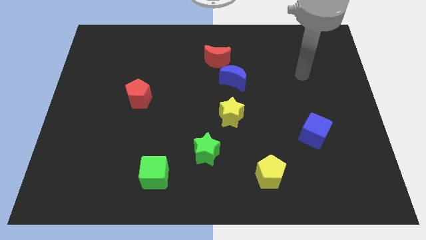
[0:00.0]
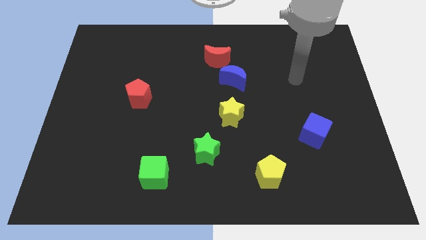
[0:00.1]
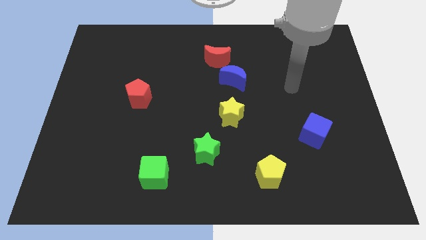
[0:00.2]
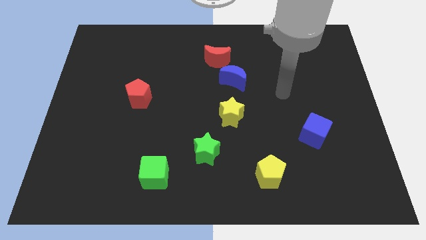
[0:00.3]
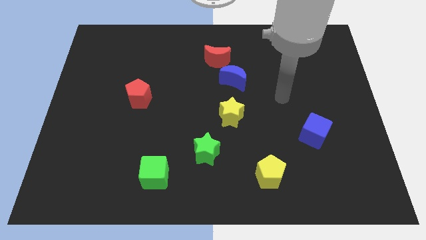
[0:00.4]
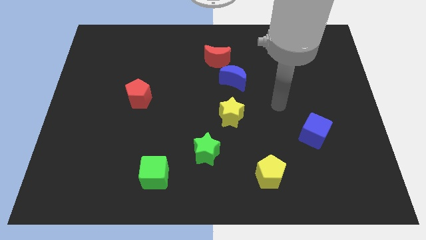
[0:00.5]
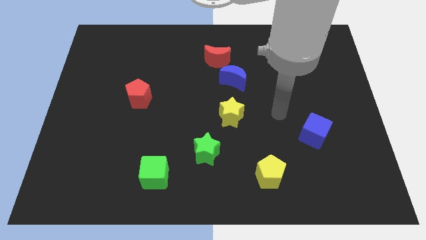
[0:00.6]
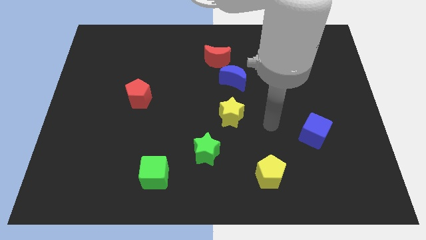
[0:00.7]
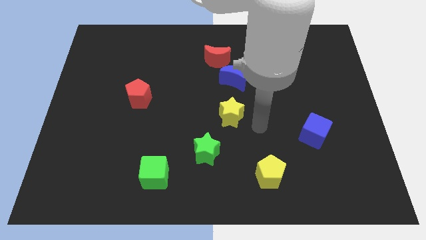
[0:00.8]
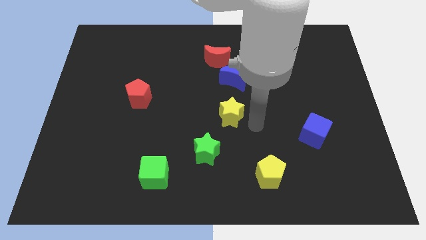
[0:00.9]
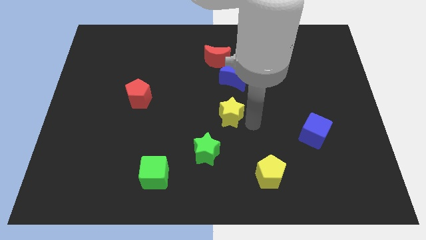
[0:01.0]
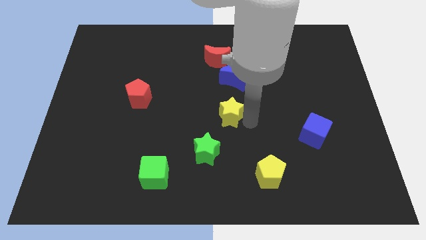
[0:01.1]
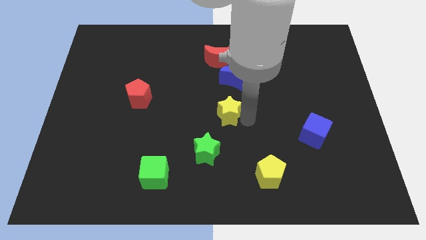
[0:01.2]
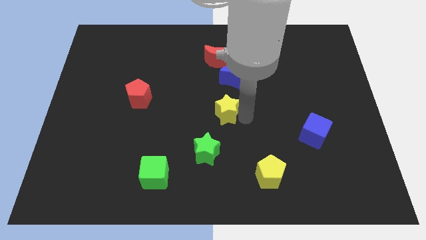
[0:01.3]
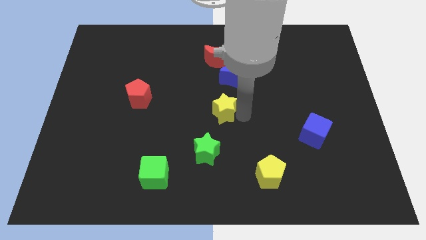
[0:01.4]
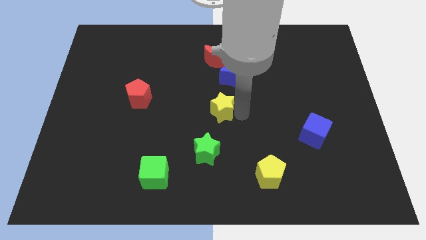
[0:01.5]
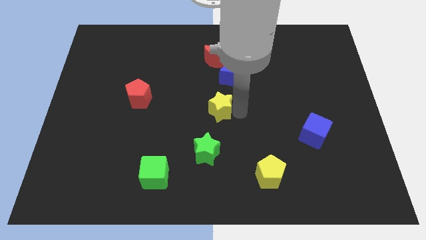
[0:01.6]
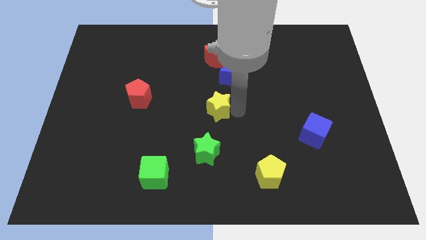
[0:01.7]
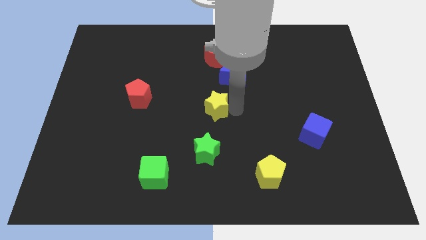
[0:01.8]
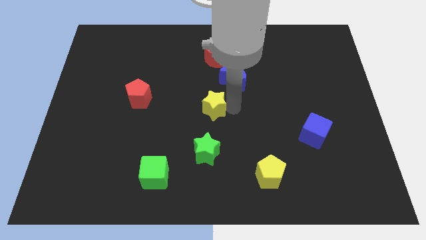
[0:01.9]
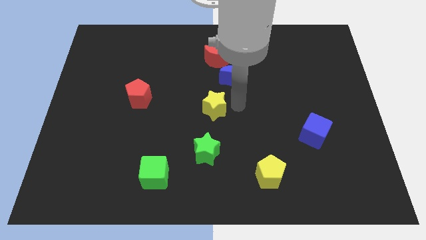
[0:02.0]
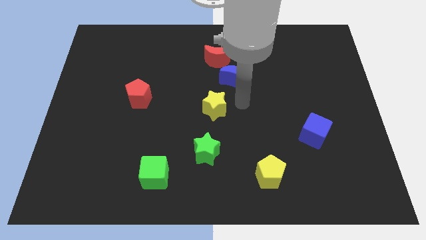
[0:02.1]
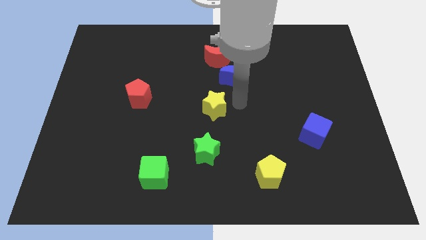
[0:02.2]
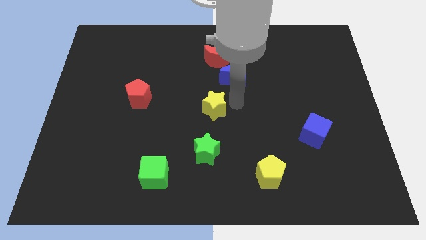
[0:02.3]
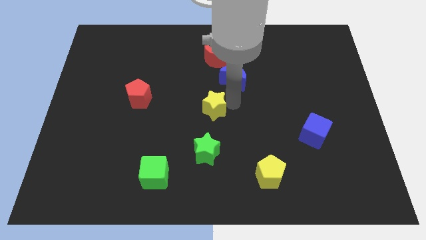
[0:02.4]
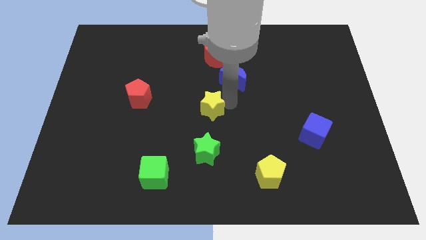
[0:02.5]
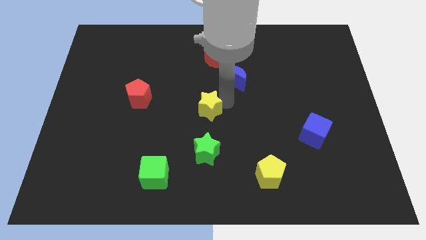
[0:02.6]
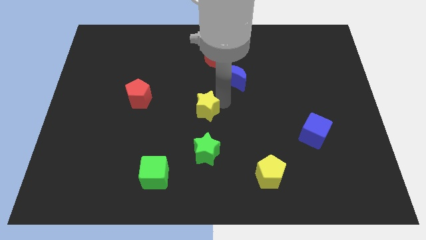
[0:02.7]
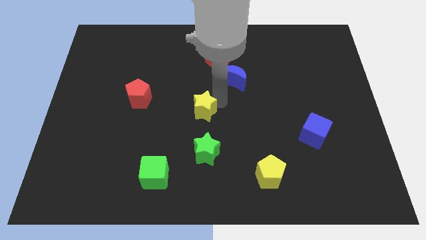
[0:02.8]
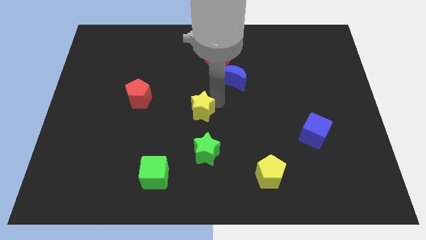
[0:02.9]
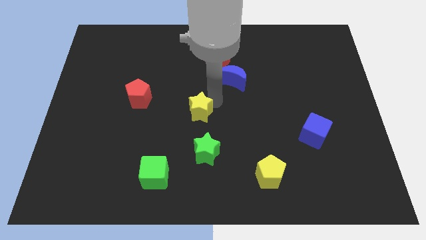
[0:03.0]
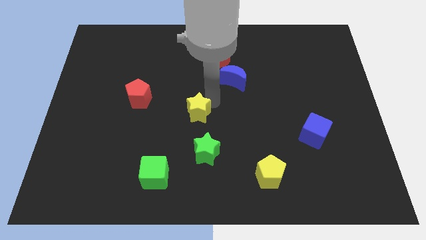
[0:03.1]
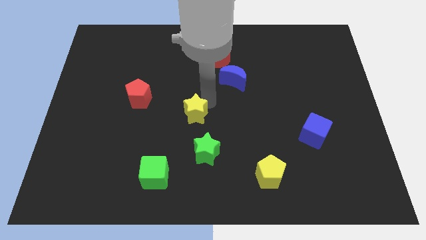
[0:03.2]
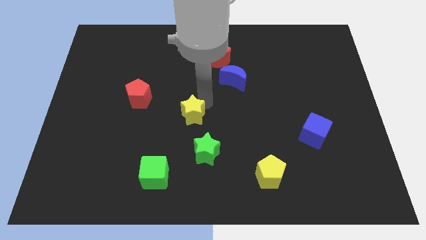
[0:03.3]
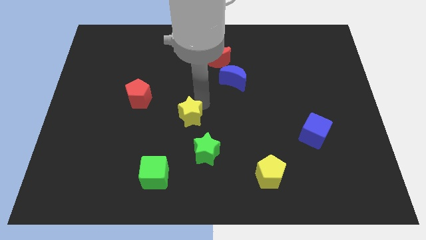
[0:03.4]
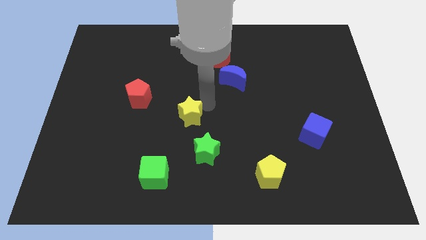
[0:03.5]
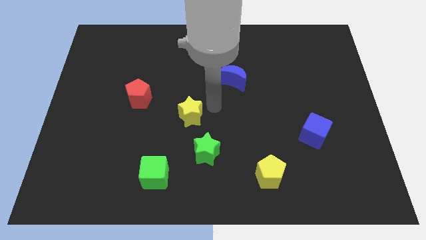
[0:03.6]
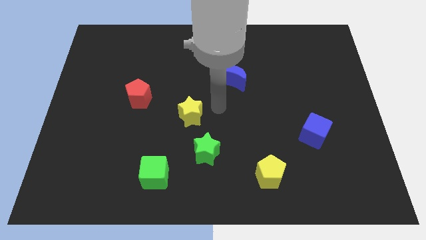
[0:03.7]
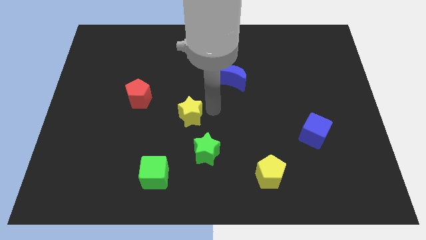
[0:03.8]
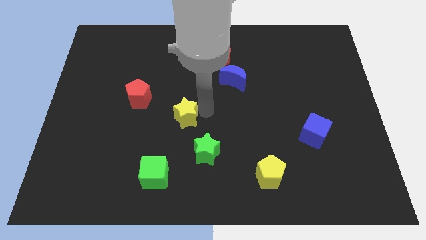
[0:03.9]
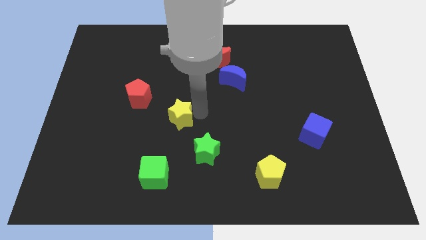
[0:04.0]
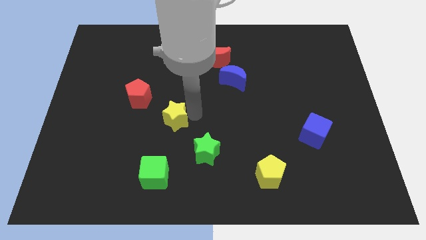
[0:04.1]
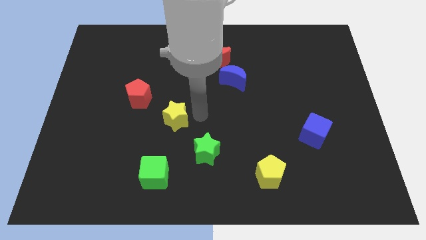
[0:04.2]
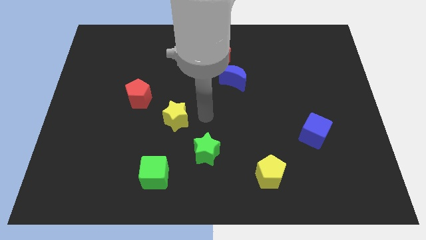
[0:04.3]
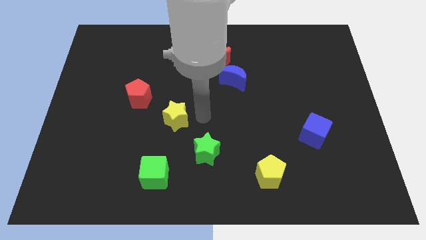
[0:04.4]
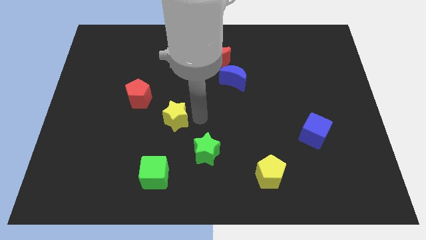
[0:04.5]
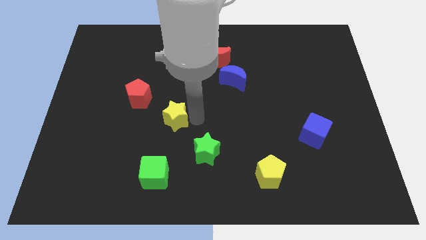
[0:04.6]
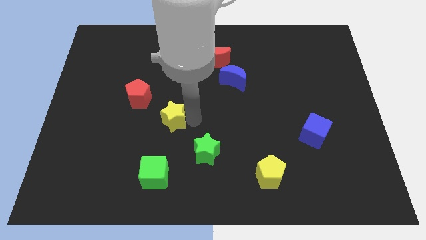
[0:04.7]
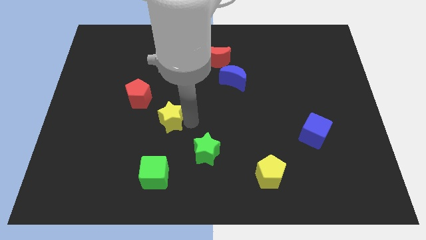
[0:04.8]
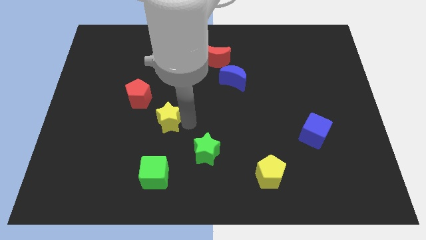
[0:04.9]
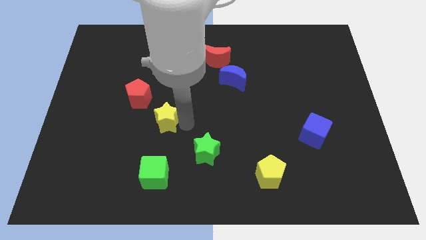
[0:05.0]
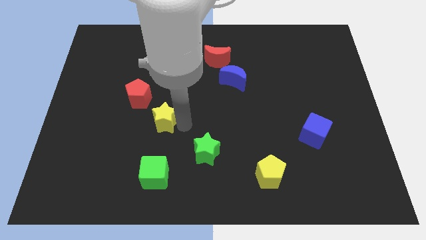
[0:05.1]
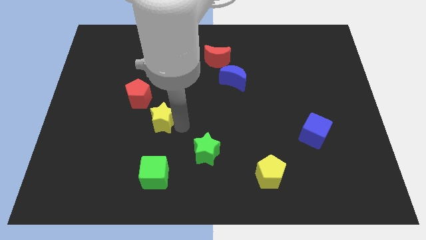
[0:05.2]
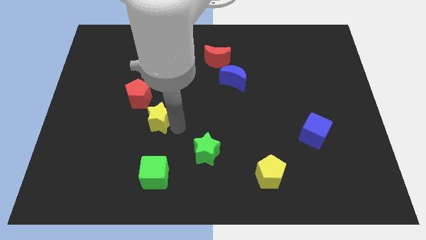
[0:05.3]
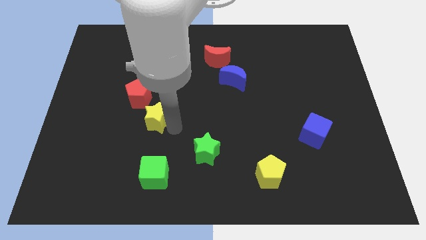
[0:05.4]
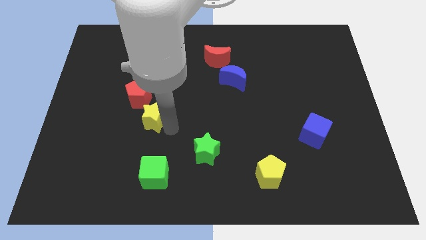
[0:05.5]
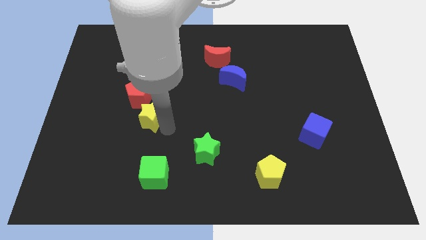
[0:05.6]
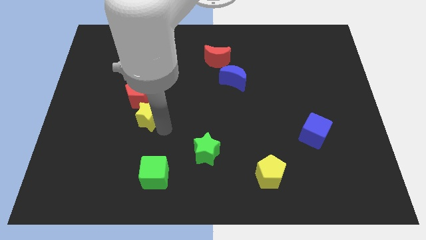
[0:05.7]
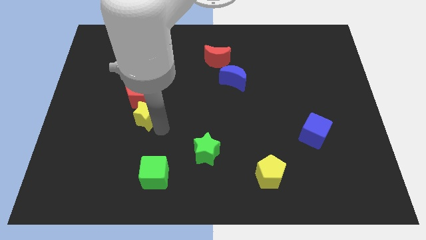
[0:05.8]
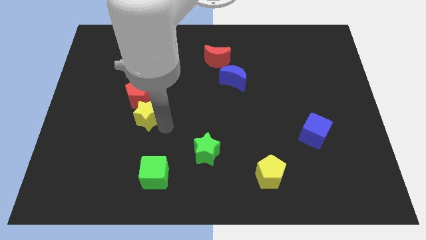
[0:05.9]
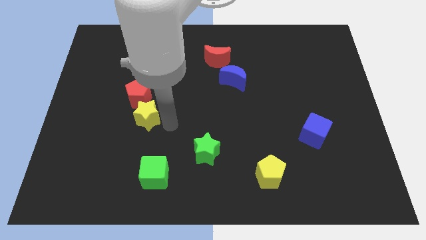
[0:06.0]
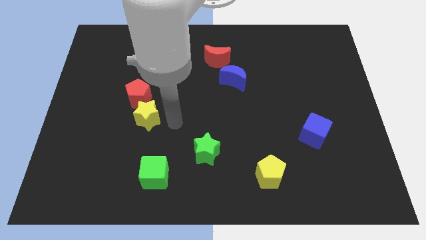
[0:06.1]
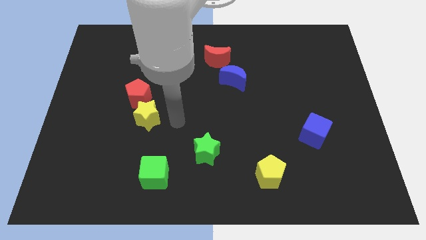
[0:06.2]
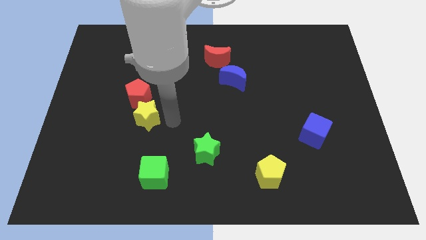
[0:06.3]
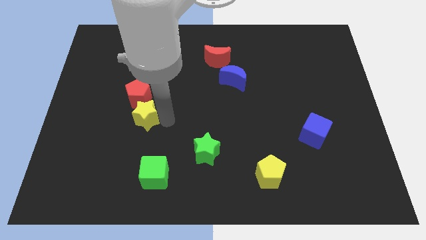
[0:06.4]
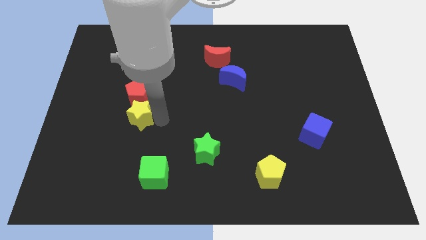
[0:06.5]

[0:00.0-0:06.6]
slide the yellow star left

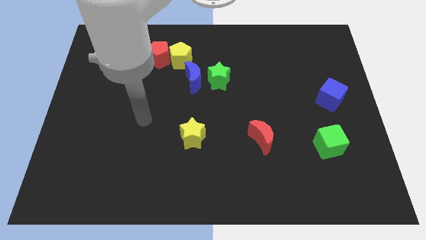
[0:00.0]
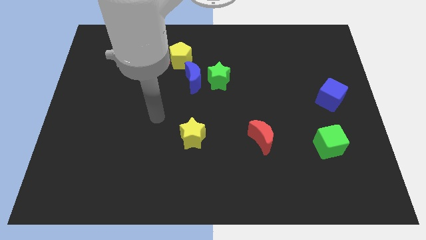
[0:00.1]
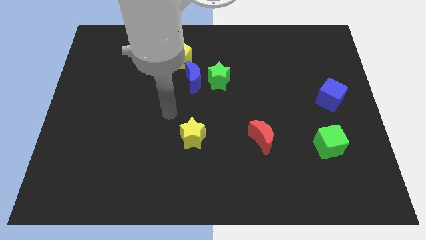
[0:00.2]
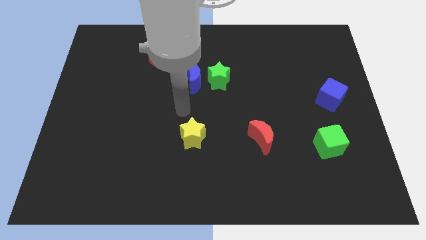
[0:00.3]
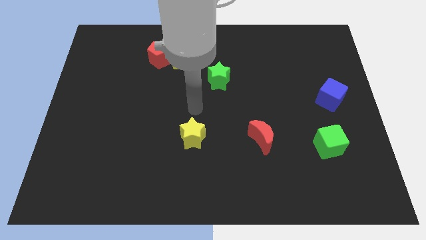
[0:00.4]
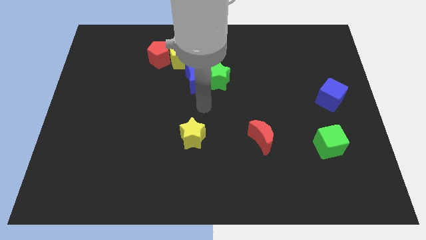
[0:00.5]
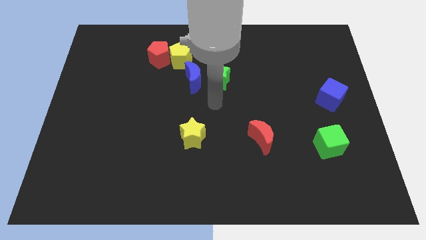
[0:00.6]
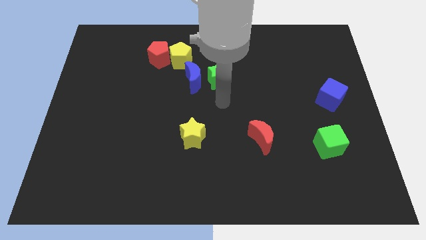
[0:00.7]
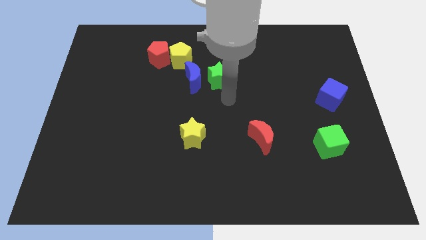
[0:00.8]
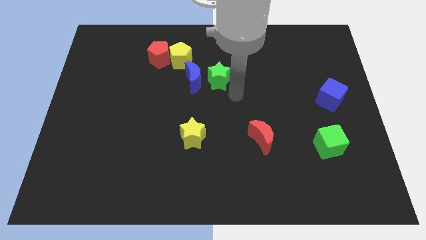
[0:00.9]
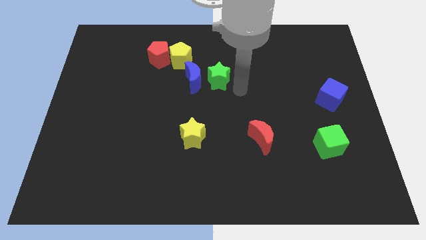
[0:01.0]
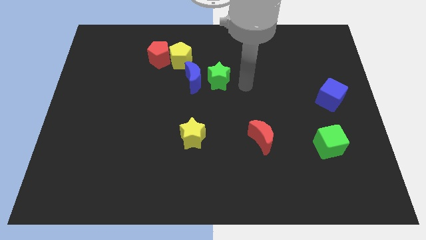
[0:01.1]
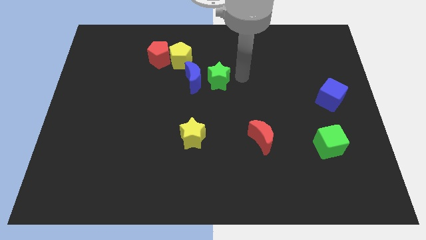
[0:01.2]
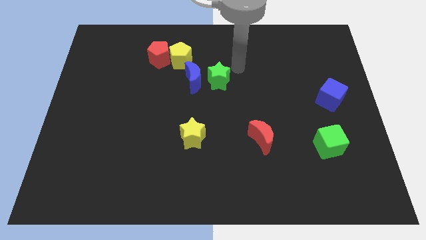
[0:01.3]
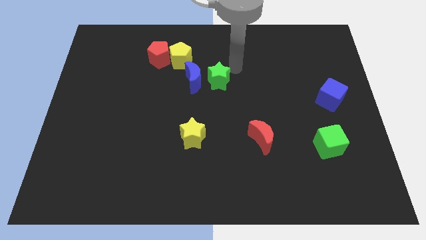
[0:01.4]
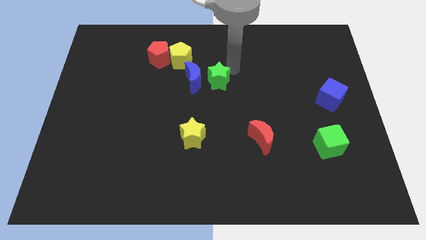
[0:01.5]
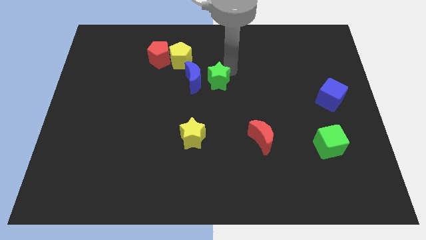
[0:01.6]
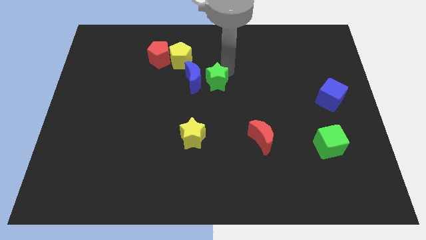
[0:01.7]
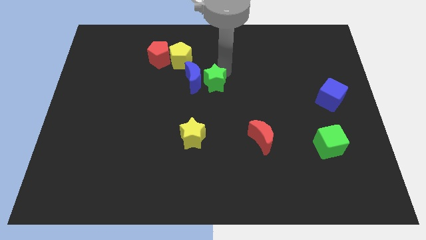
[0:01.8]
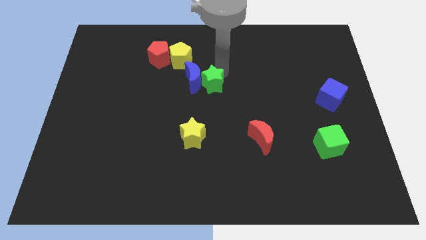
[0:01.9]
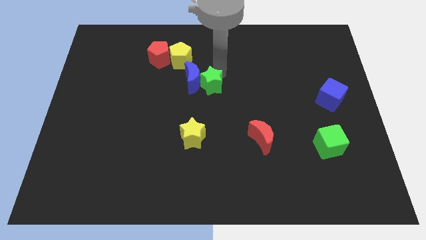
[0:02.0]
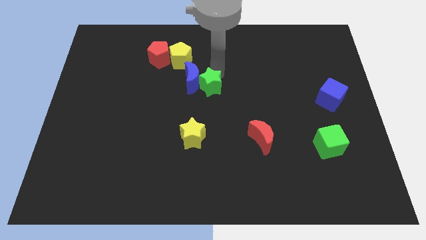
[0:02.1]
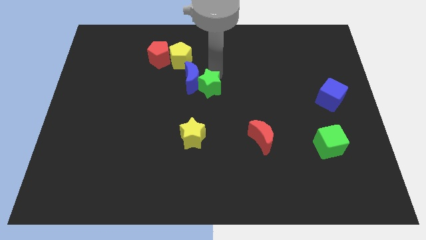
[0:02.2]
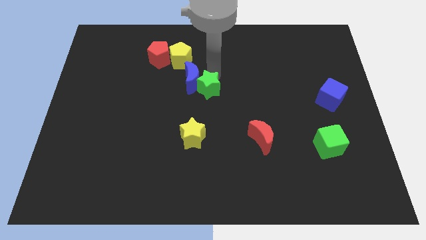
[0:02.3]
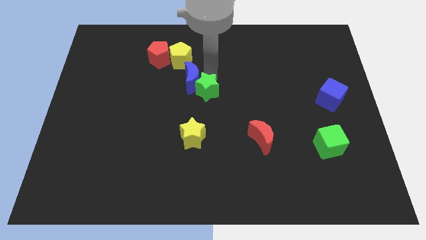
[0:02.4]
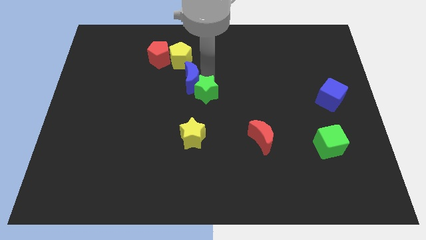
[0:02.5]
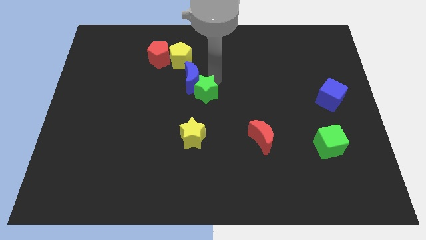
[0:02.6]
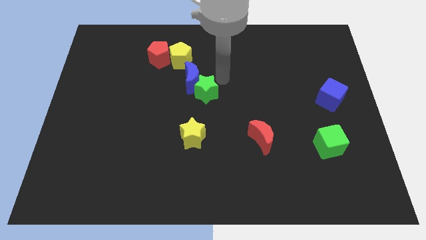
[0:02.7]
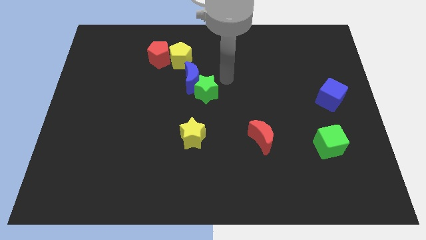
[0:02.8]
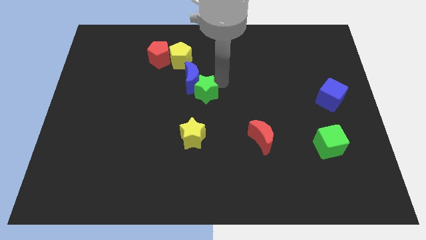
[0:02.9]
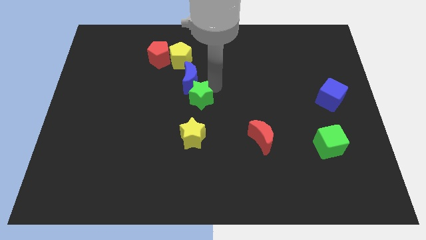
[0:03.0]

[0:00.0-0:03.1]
slightly push the green star downwards and then left
